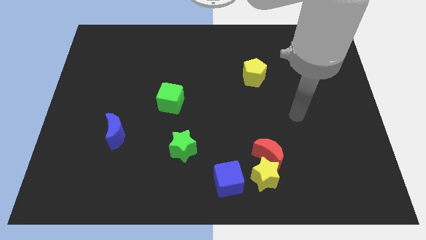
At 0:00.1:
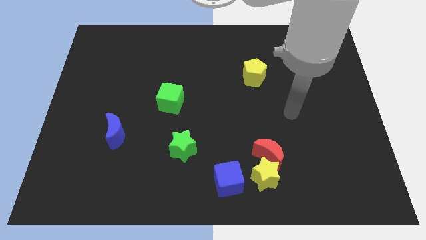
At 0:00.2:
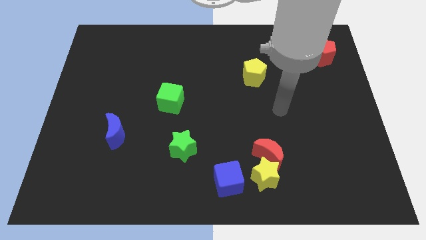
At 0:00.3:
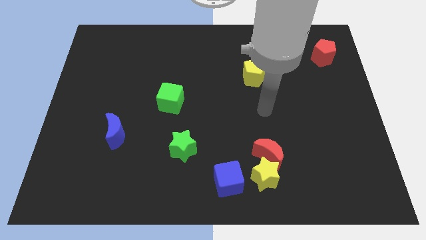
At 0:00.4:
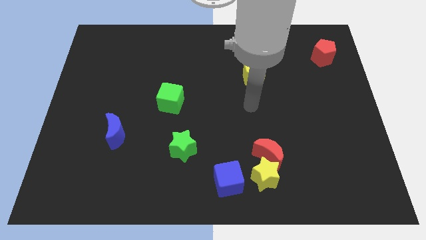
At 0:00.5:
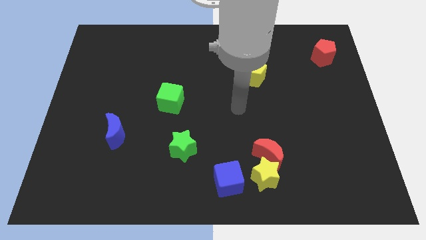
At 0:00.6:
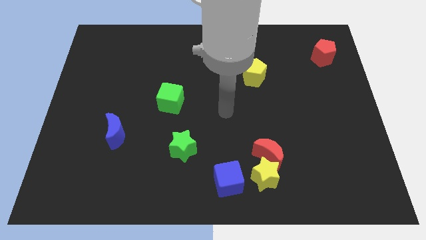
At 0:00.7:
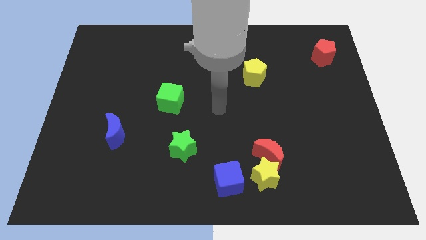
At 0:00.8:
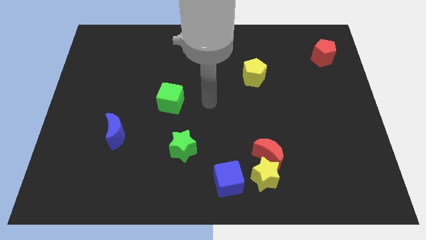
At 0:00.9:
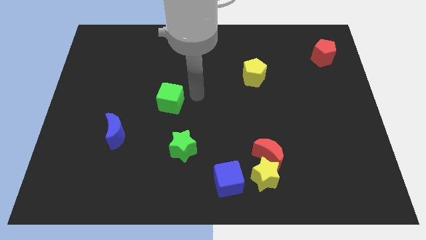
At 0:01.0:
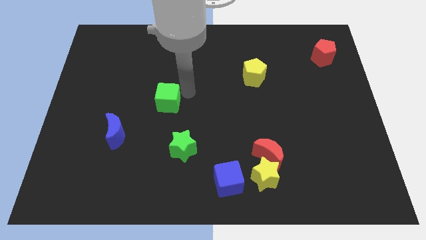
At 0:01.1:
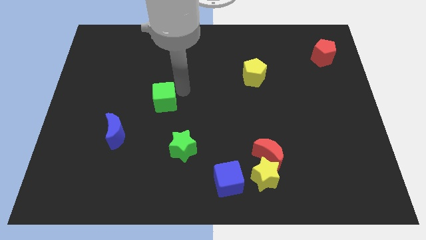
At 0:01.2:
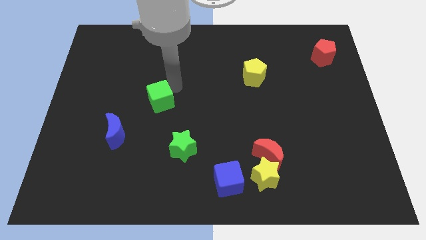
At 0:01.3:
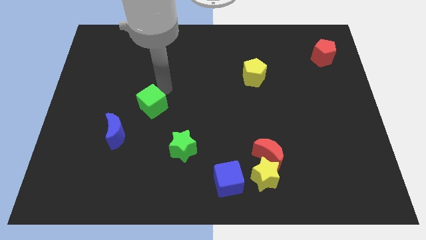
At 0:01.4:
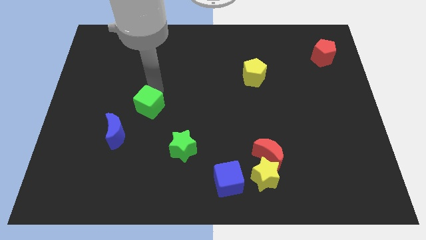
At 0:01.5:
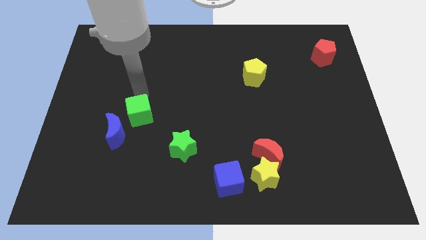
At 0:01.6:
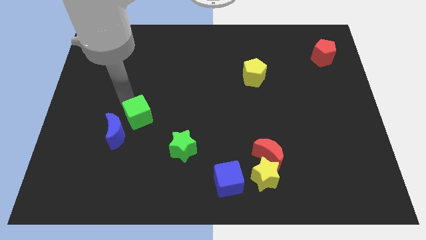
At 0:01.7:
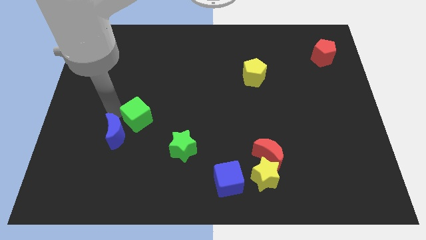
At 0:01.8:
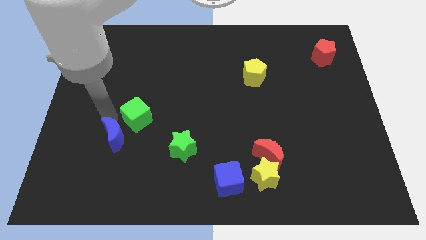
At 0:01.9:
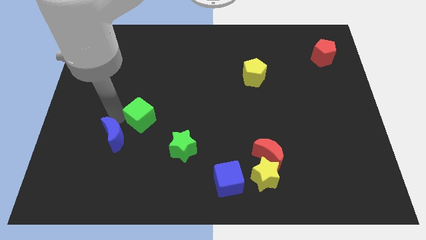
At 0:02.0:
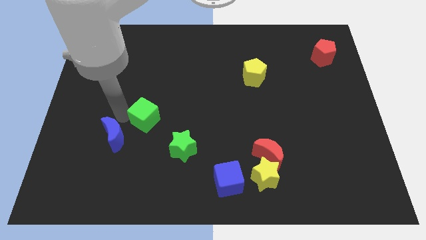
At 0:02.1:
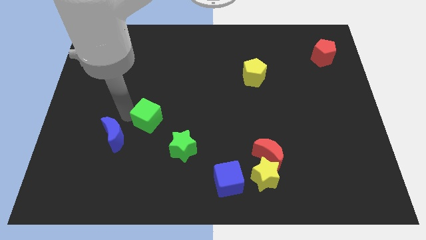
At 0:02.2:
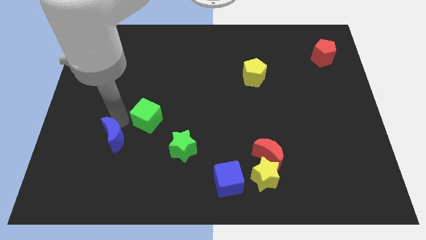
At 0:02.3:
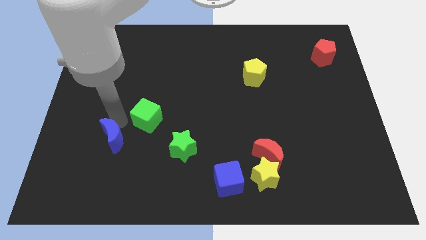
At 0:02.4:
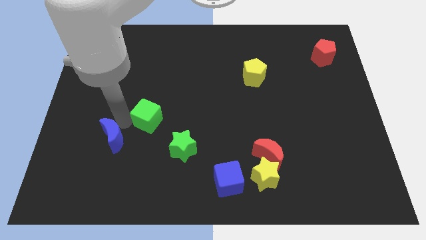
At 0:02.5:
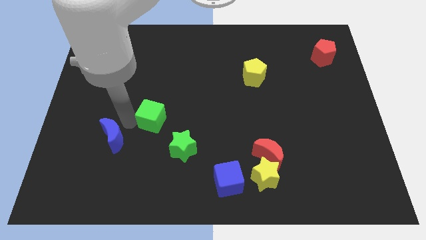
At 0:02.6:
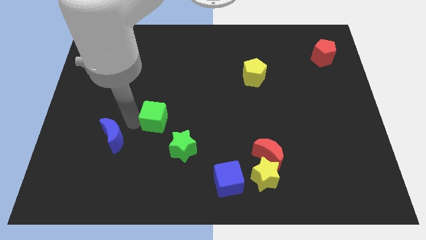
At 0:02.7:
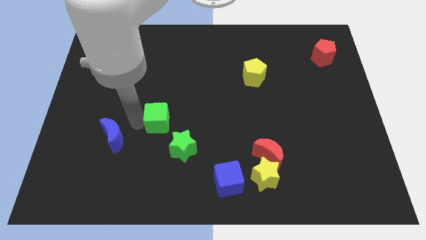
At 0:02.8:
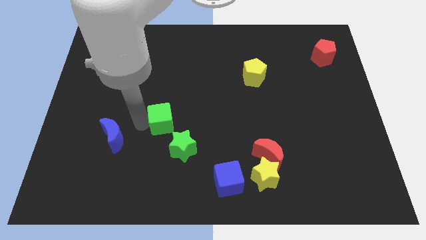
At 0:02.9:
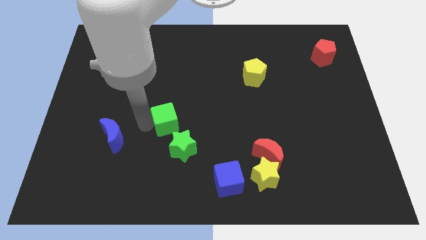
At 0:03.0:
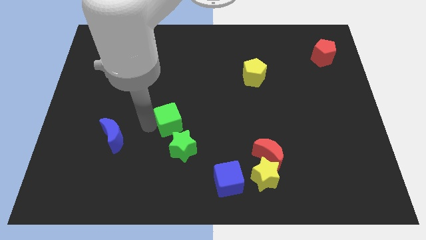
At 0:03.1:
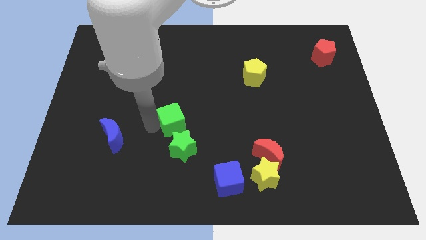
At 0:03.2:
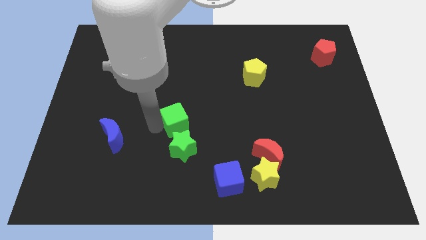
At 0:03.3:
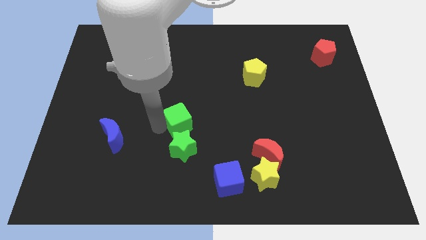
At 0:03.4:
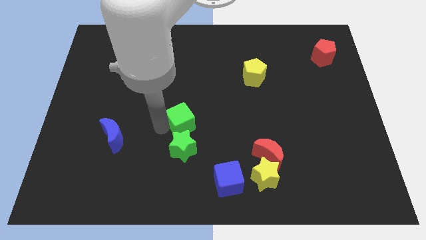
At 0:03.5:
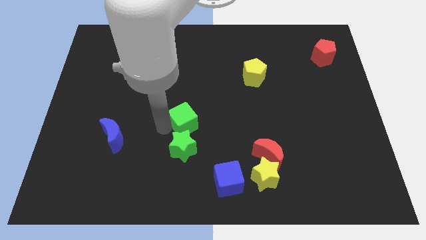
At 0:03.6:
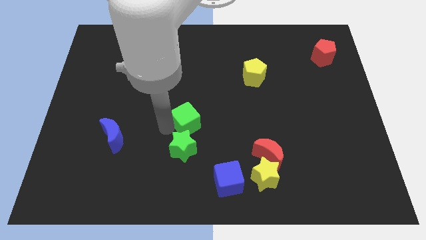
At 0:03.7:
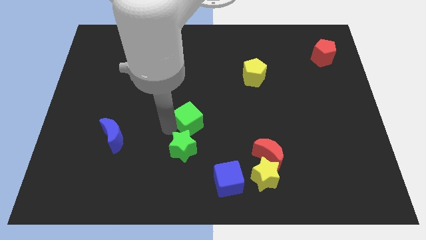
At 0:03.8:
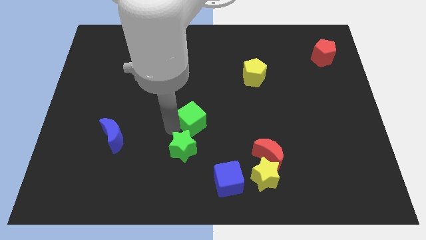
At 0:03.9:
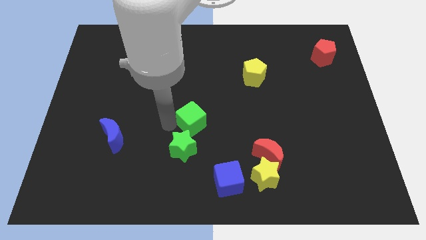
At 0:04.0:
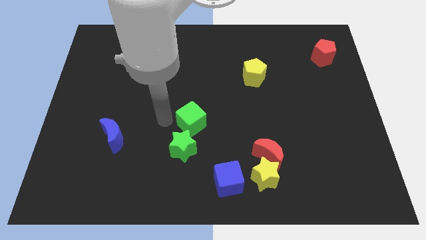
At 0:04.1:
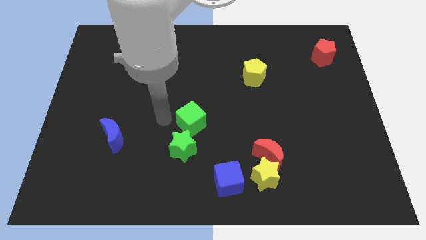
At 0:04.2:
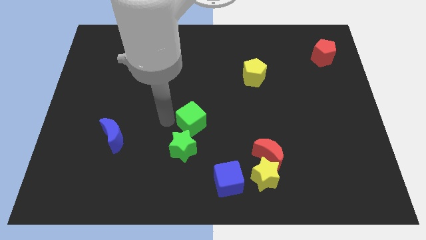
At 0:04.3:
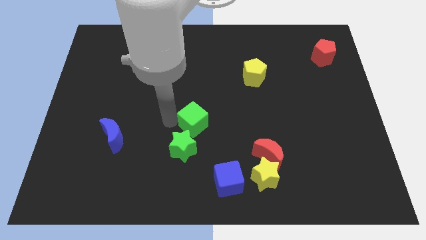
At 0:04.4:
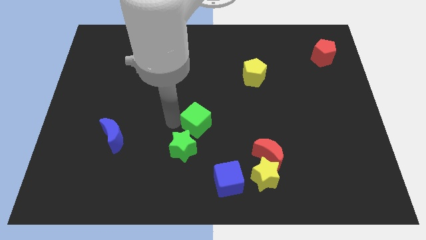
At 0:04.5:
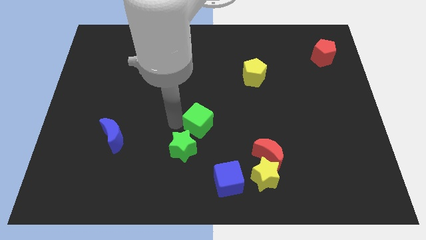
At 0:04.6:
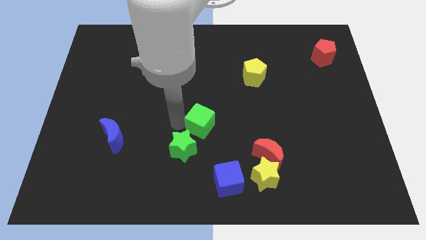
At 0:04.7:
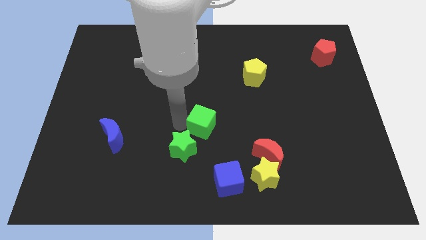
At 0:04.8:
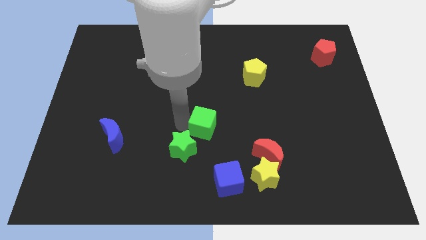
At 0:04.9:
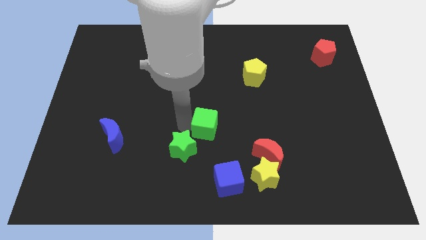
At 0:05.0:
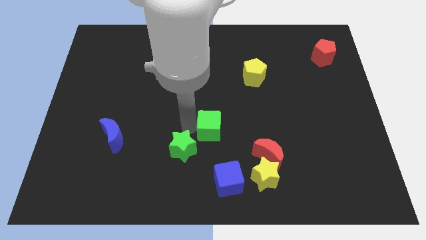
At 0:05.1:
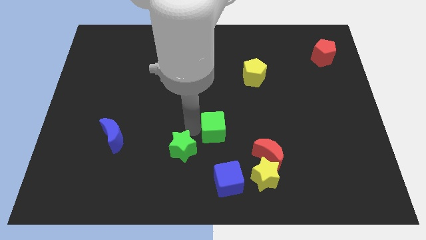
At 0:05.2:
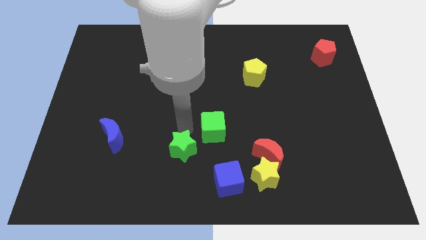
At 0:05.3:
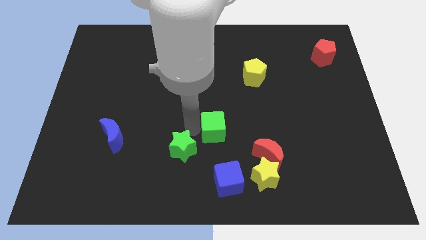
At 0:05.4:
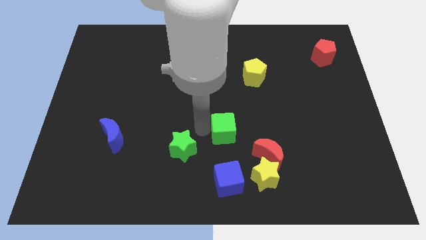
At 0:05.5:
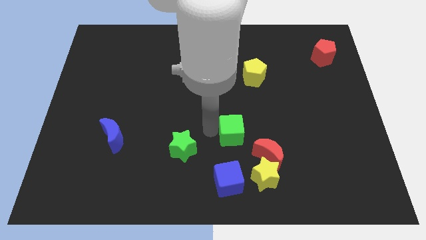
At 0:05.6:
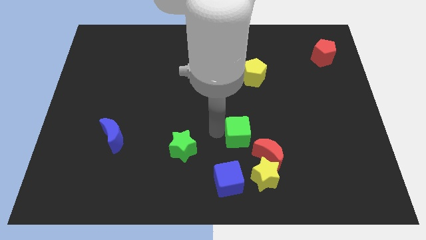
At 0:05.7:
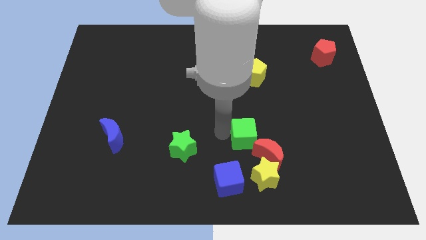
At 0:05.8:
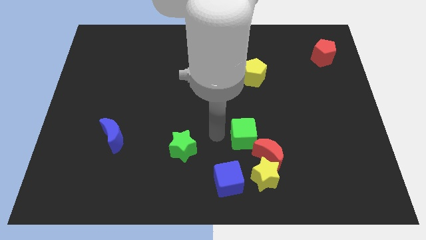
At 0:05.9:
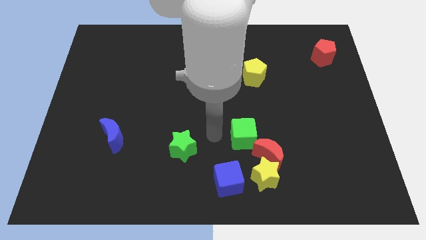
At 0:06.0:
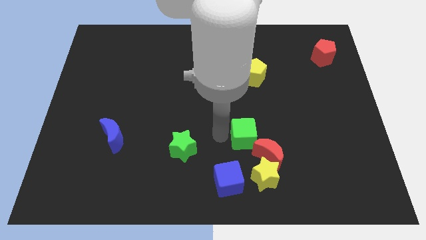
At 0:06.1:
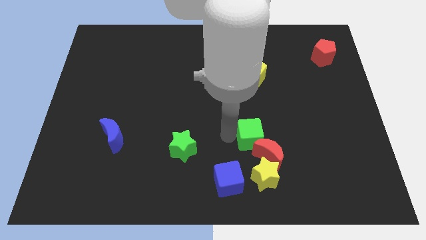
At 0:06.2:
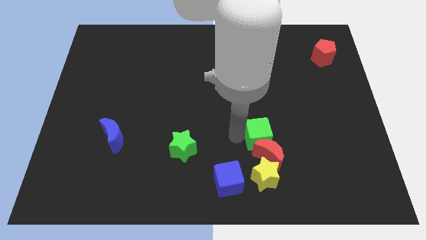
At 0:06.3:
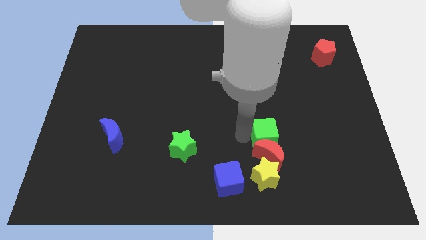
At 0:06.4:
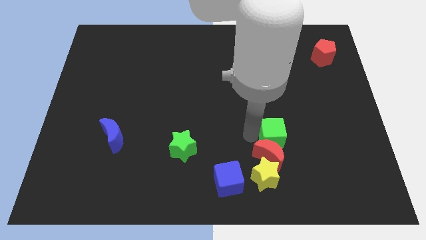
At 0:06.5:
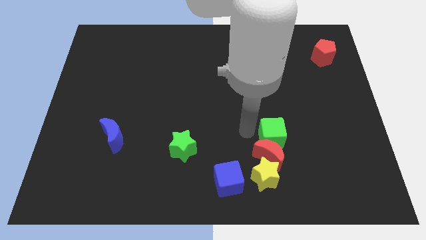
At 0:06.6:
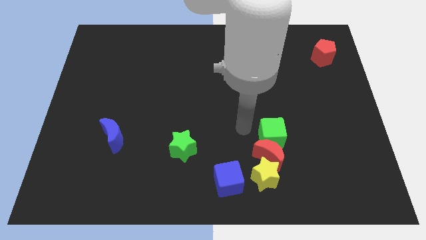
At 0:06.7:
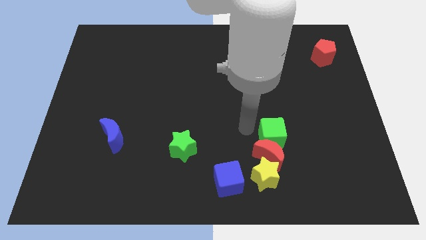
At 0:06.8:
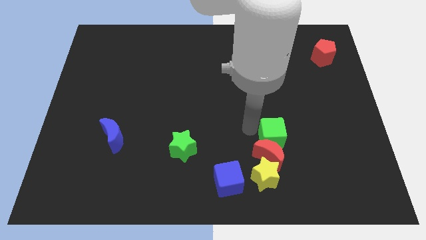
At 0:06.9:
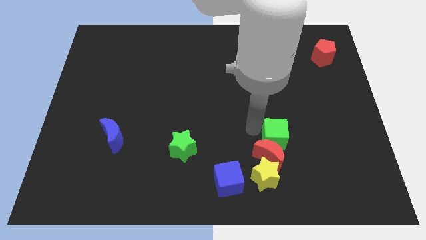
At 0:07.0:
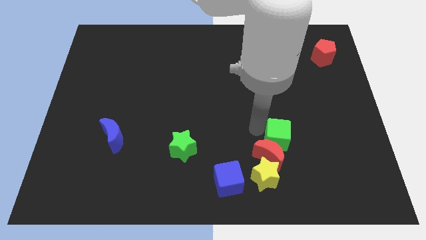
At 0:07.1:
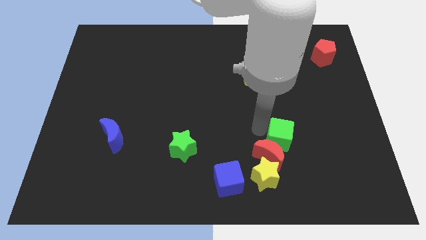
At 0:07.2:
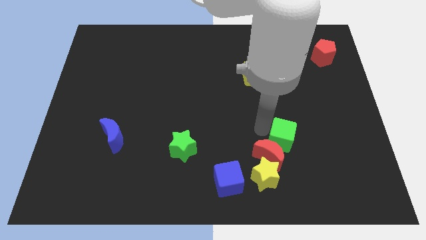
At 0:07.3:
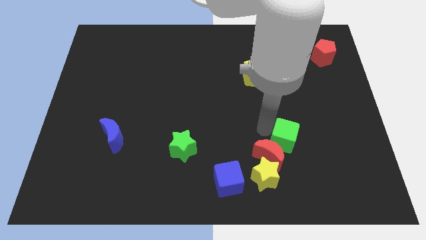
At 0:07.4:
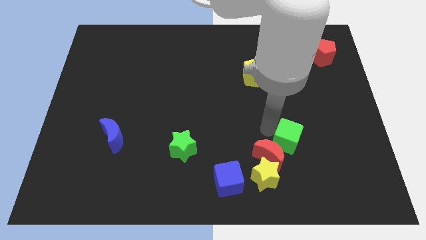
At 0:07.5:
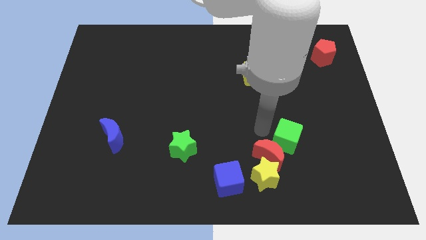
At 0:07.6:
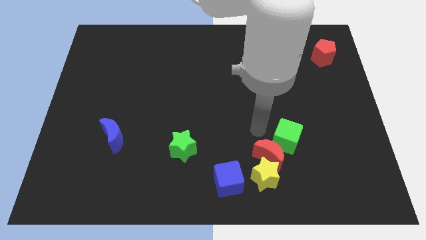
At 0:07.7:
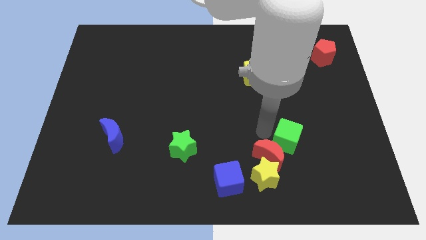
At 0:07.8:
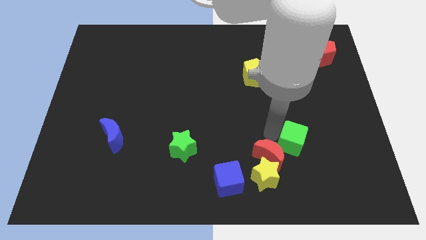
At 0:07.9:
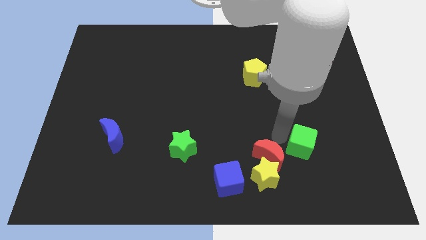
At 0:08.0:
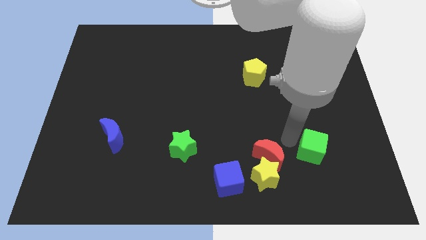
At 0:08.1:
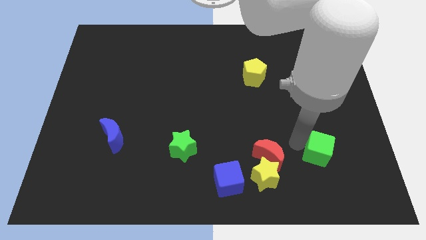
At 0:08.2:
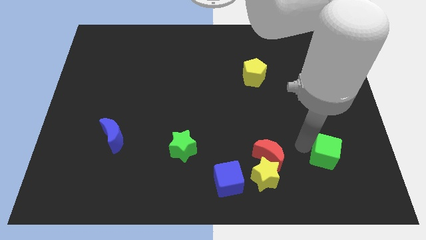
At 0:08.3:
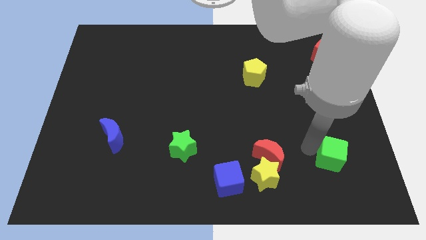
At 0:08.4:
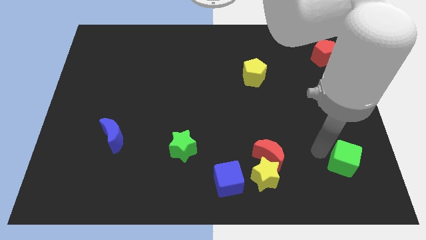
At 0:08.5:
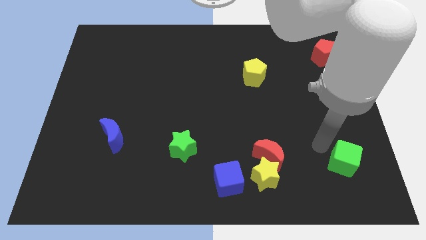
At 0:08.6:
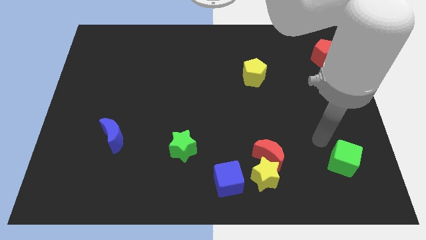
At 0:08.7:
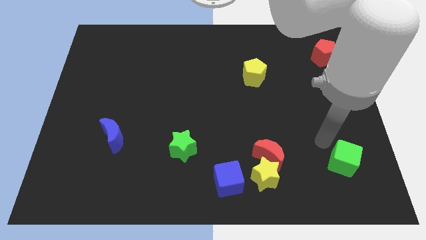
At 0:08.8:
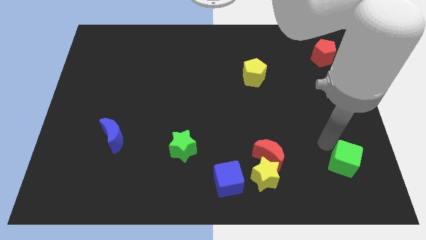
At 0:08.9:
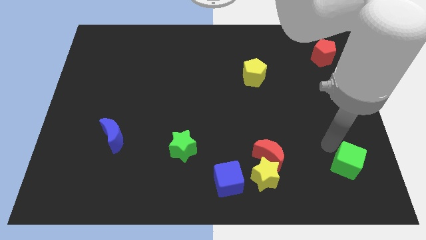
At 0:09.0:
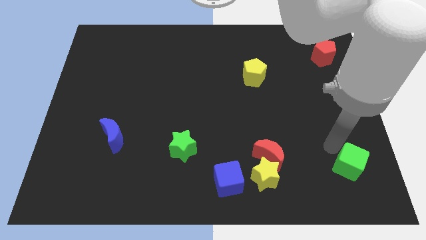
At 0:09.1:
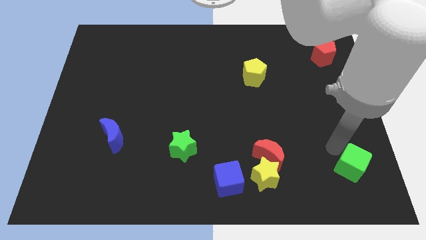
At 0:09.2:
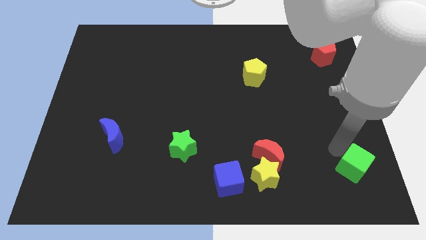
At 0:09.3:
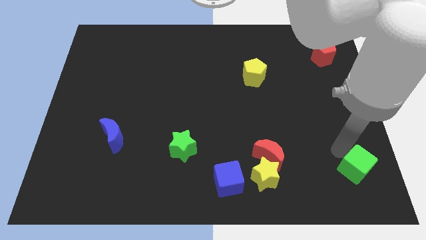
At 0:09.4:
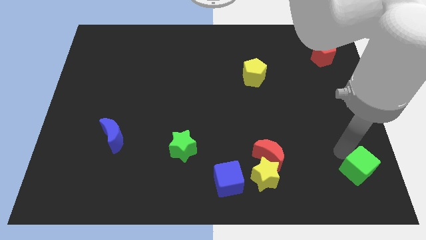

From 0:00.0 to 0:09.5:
move the green cube to the bottom right of the board
